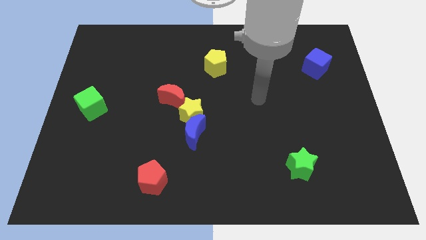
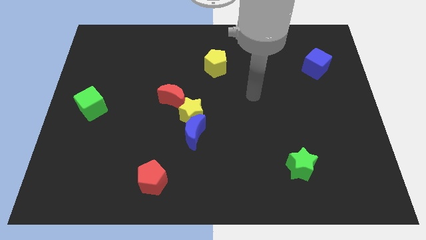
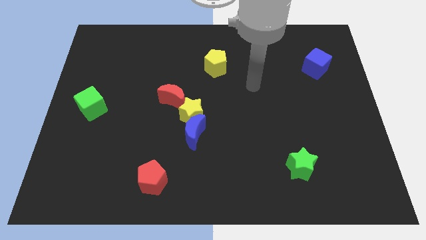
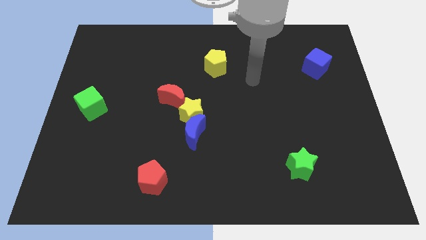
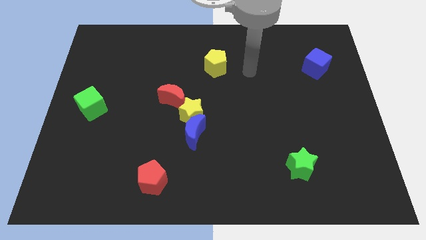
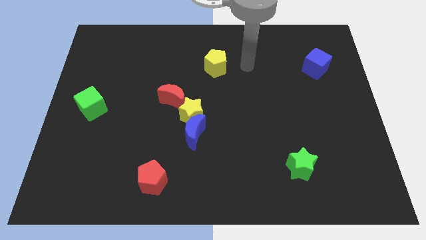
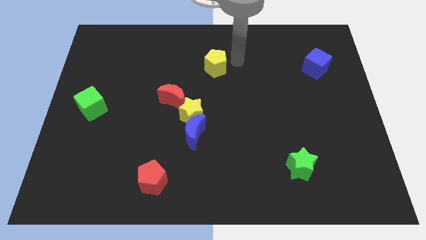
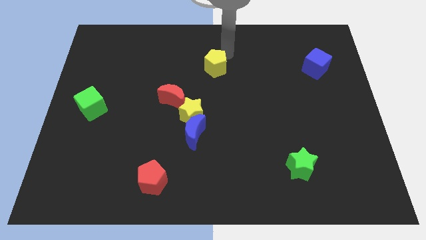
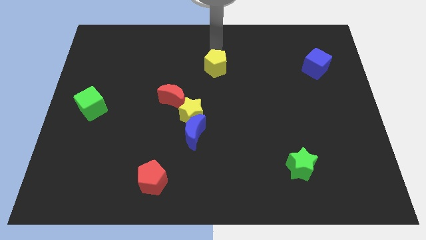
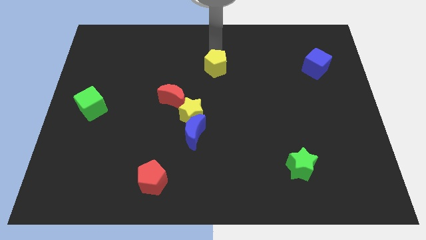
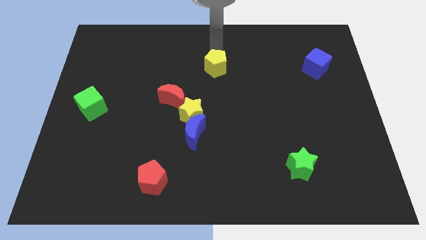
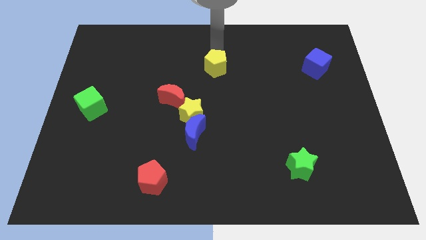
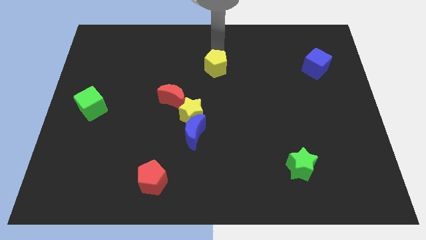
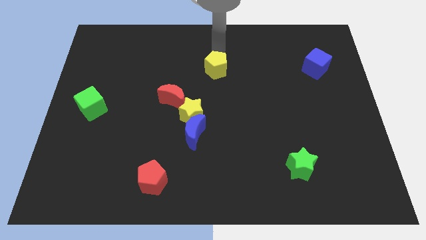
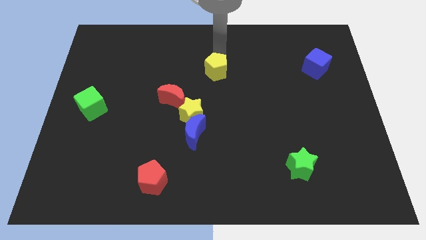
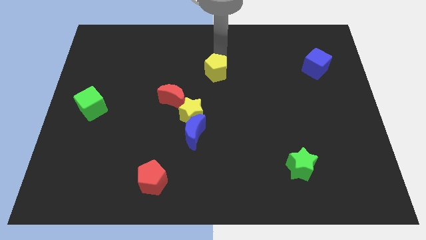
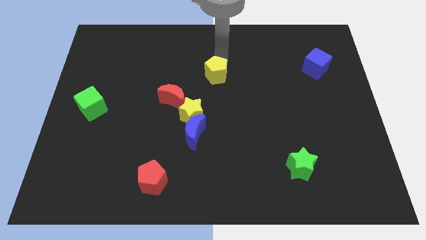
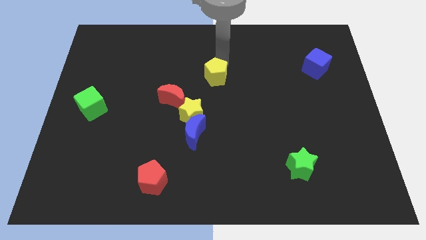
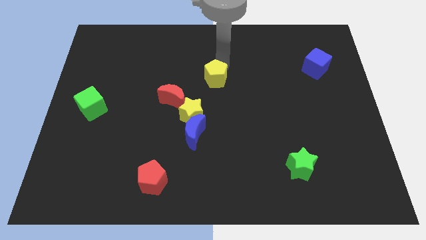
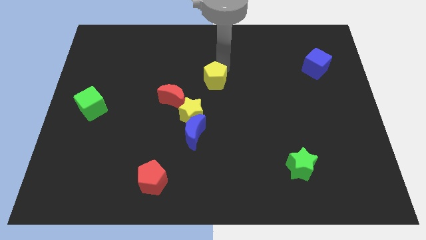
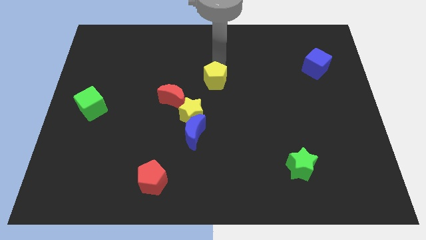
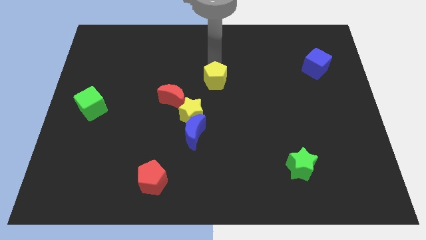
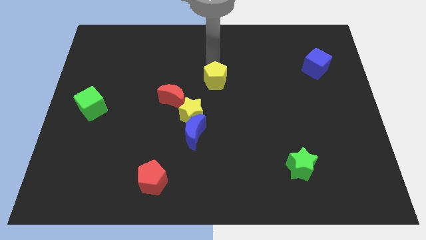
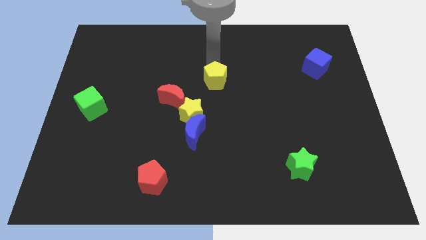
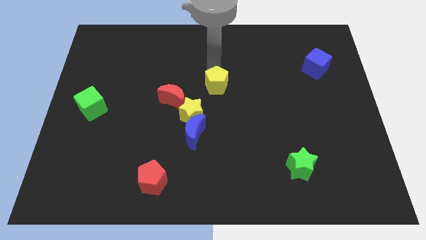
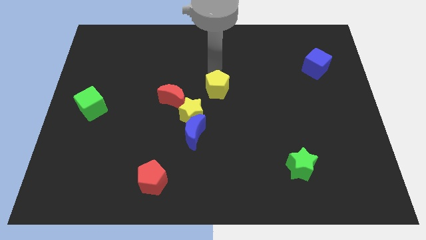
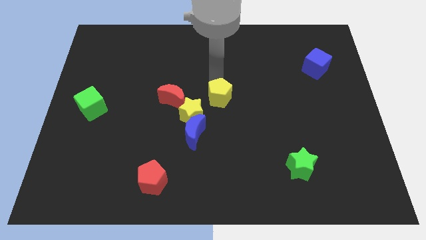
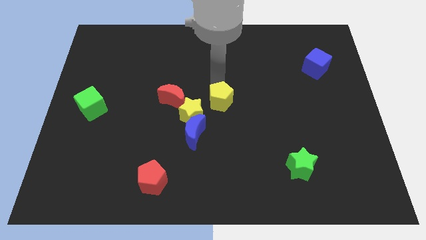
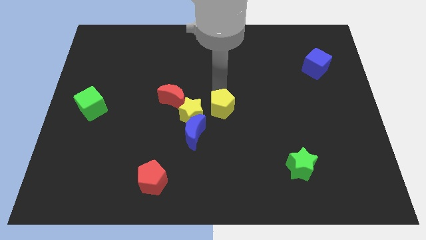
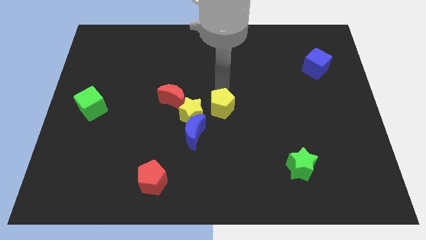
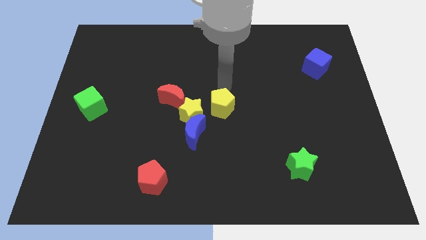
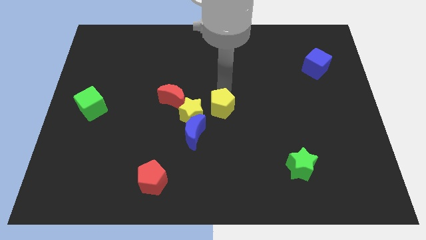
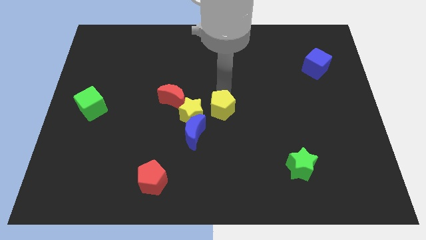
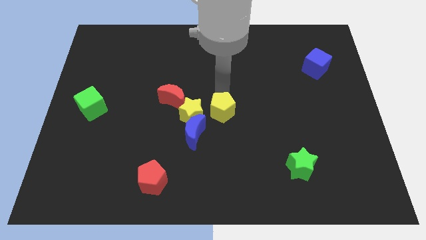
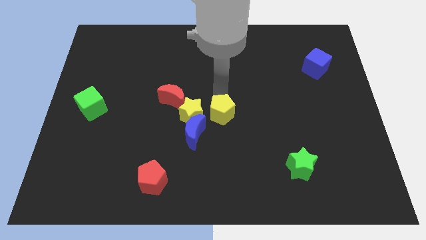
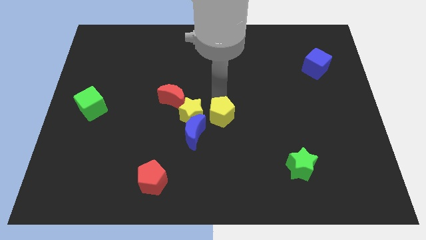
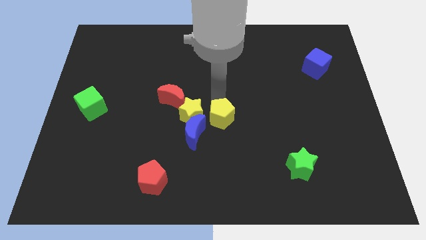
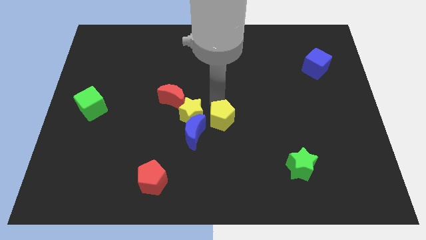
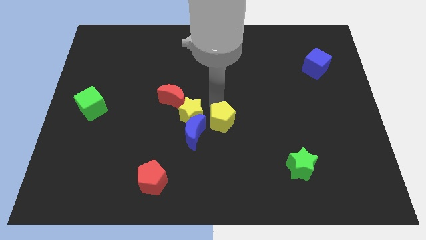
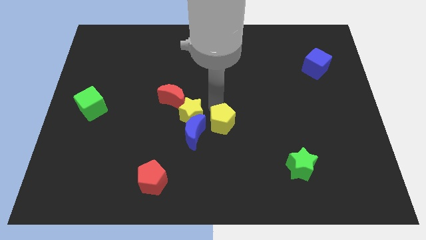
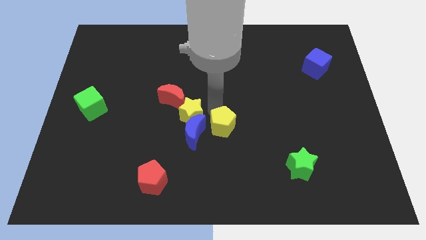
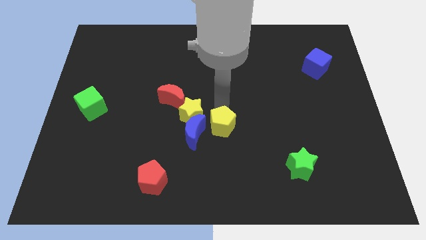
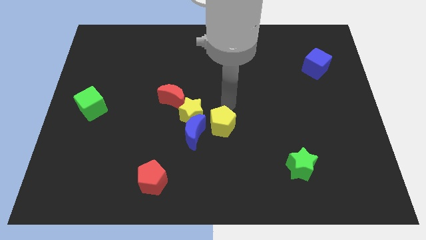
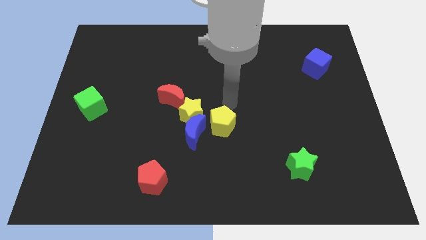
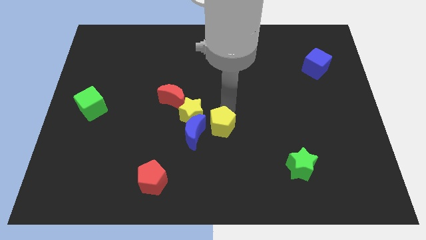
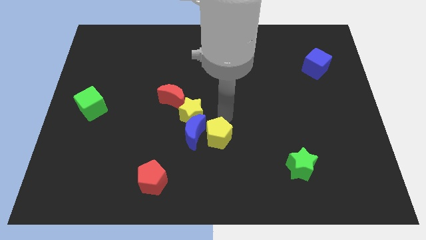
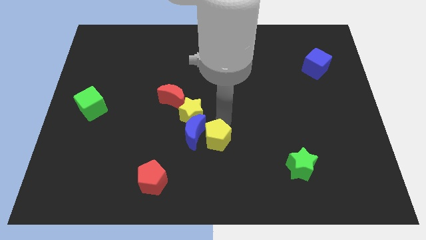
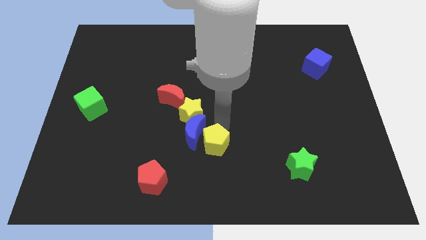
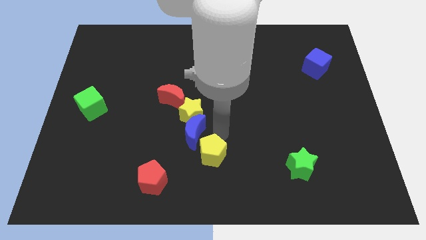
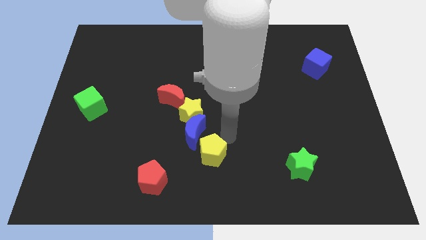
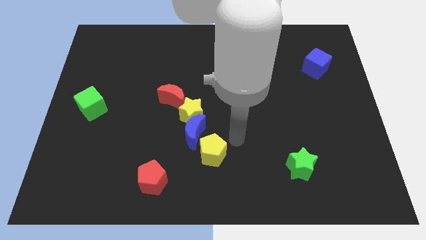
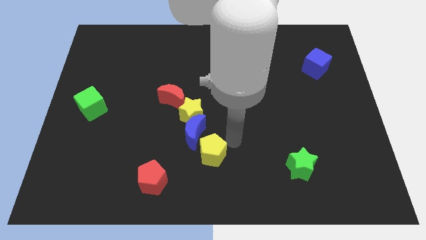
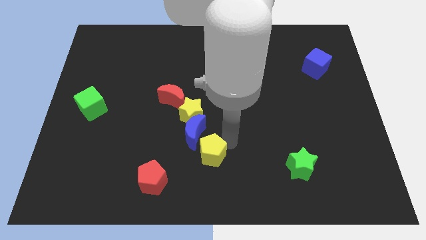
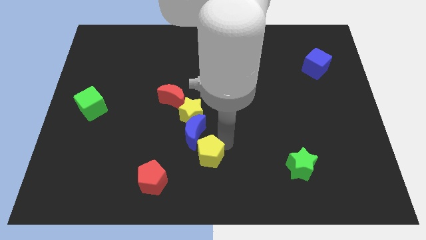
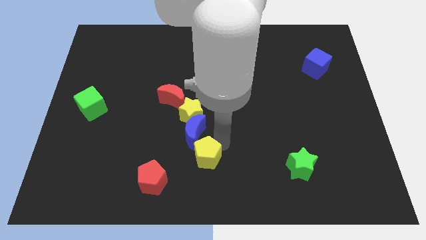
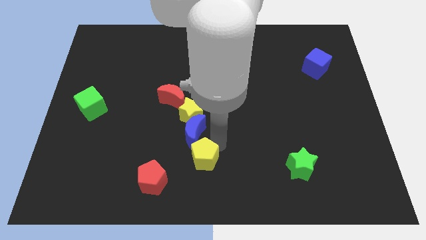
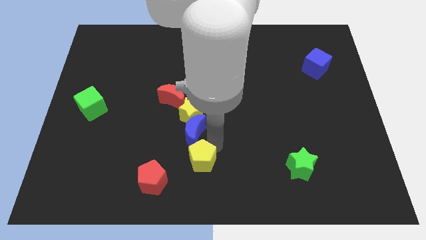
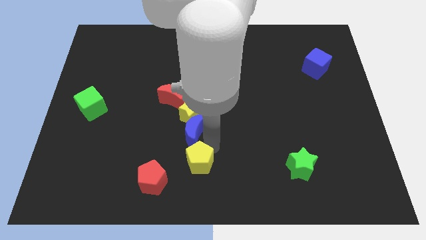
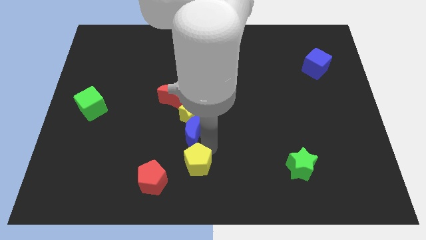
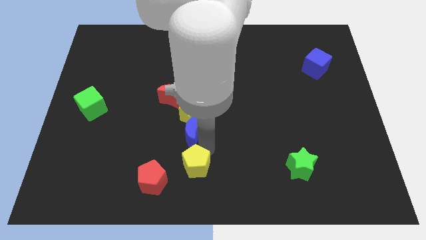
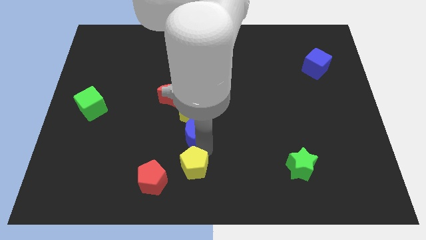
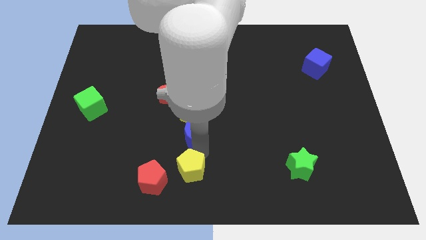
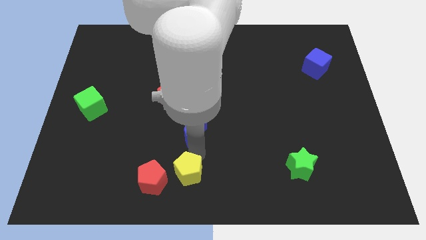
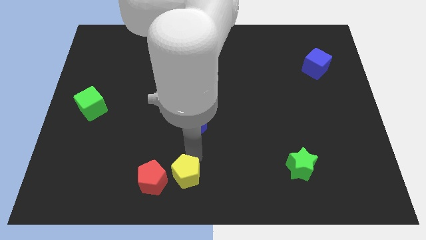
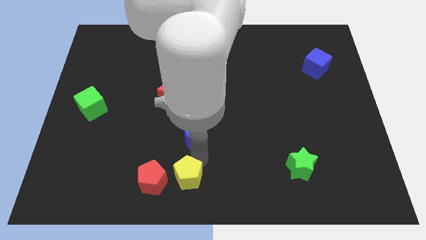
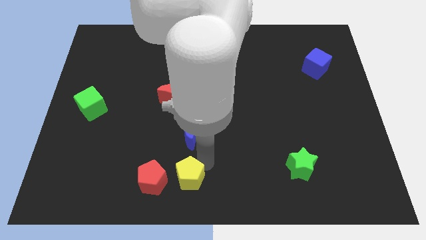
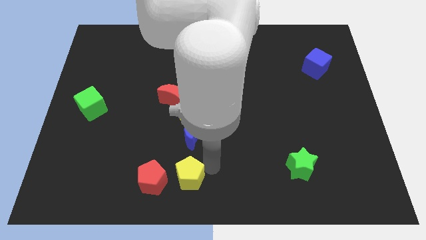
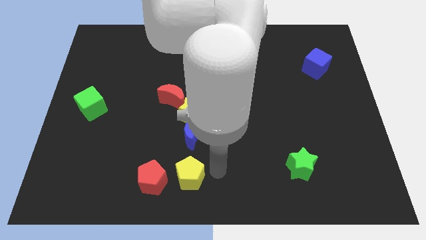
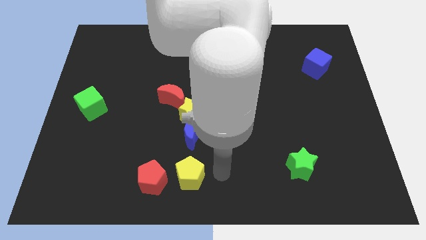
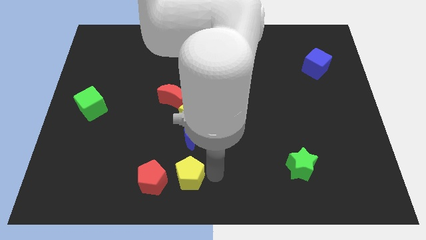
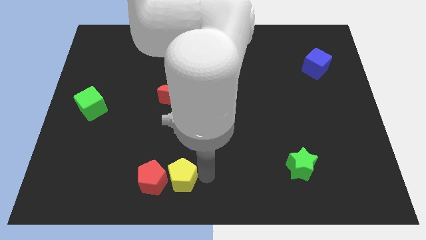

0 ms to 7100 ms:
move the yellow pentagon towards the red pentagon
